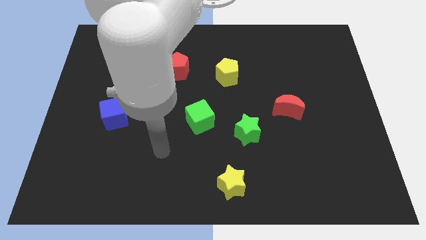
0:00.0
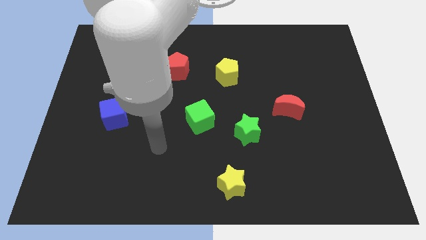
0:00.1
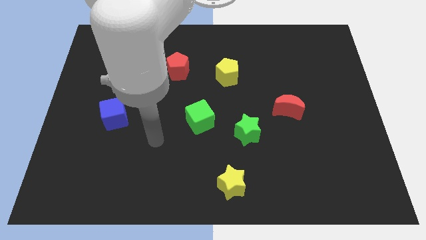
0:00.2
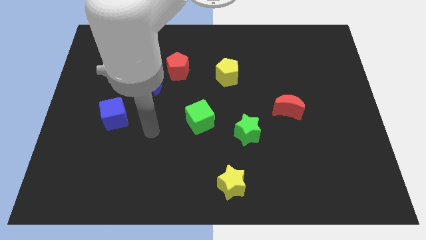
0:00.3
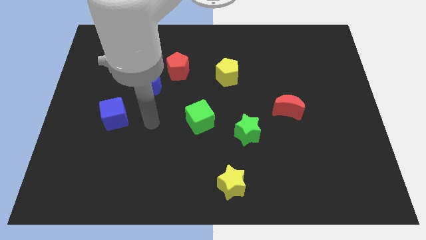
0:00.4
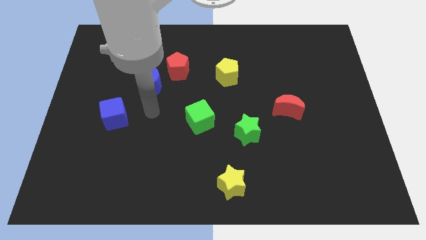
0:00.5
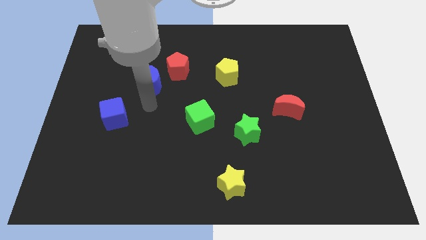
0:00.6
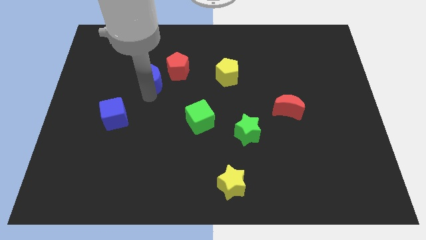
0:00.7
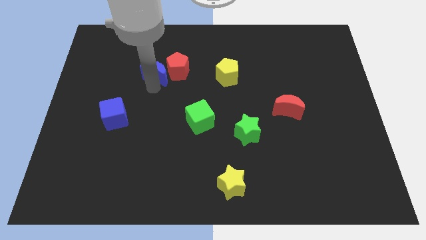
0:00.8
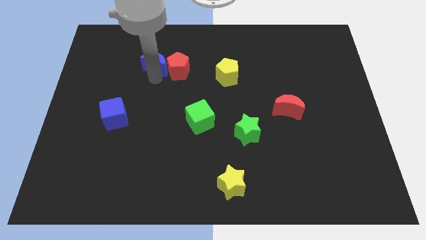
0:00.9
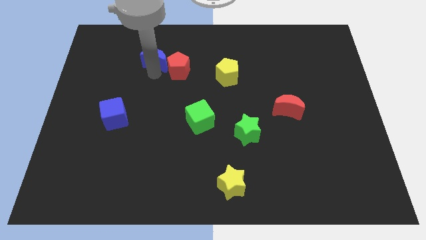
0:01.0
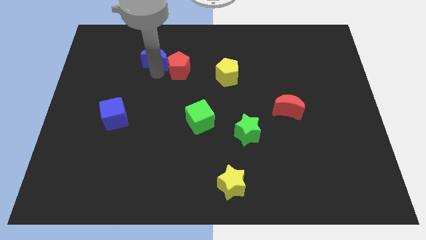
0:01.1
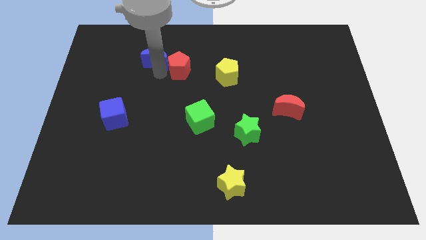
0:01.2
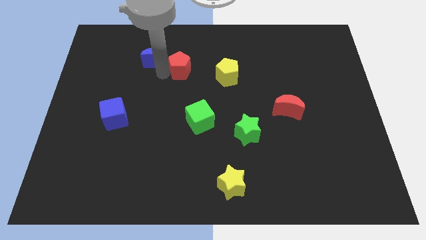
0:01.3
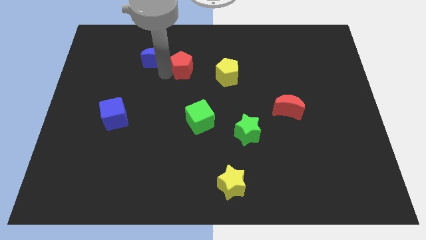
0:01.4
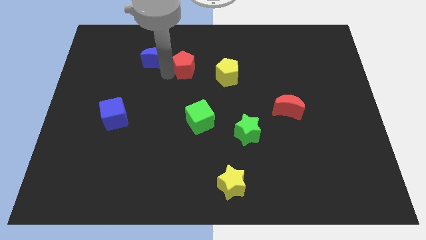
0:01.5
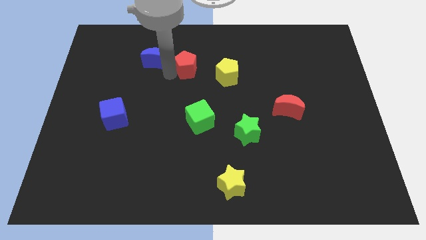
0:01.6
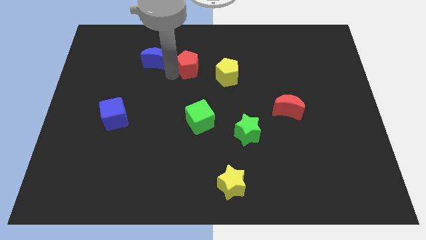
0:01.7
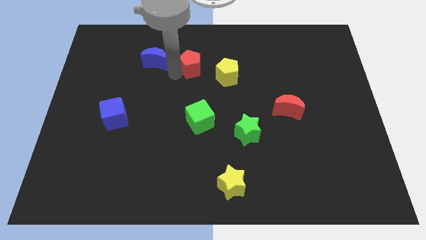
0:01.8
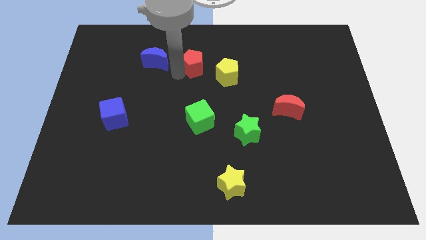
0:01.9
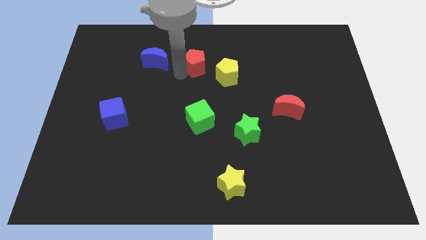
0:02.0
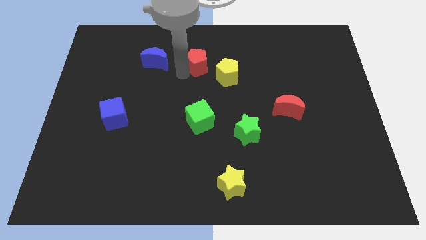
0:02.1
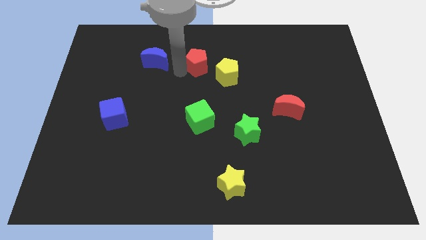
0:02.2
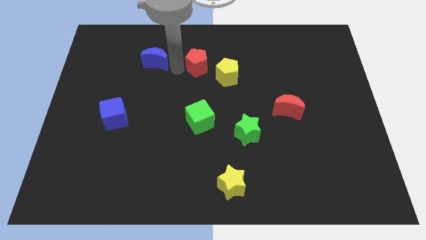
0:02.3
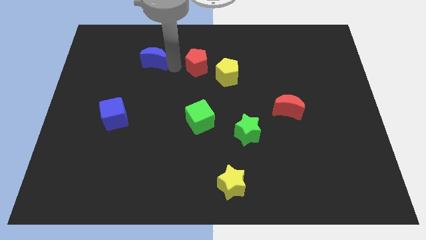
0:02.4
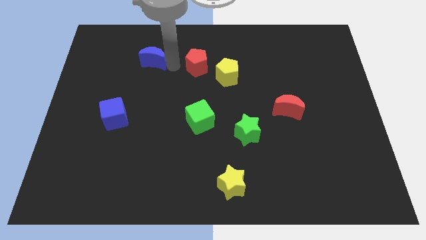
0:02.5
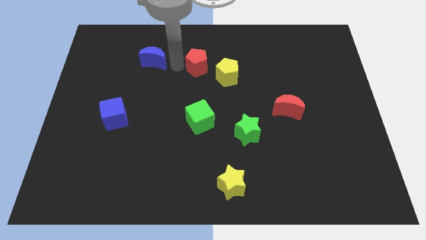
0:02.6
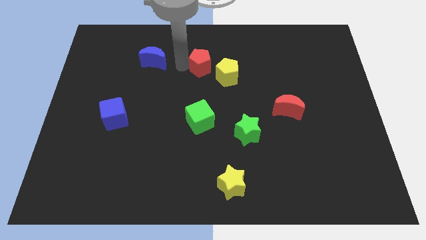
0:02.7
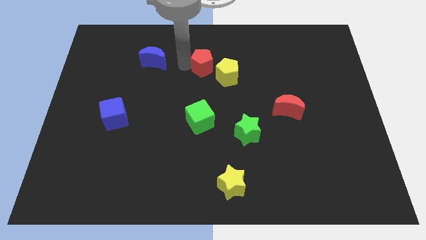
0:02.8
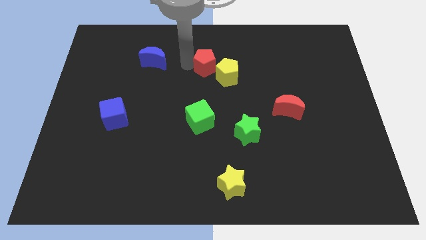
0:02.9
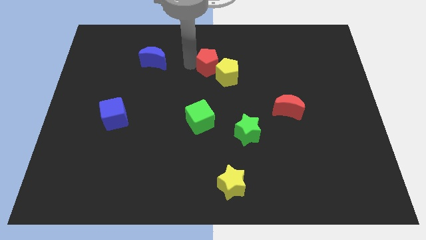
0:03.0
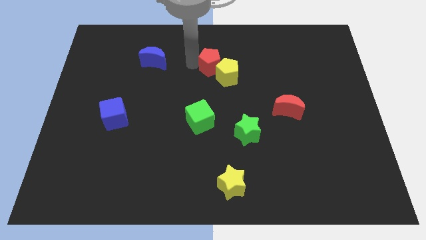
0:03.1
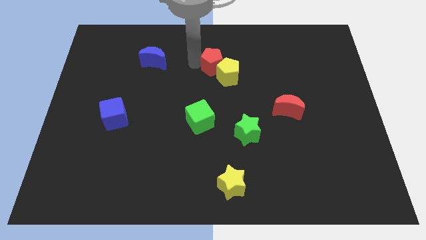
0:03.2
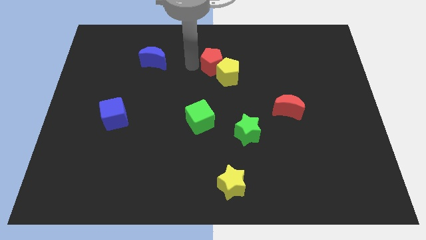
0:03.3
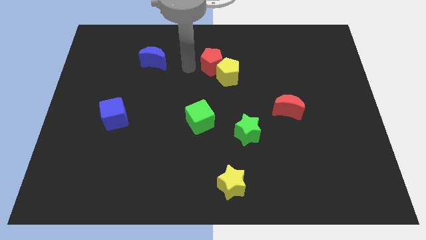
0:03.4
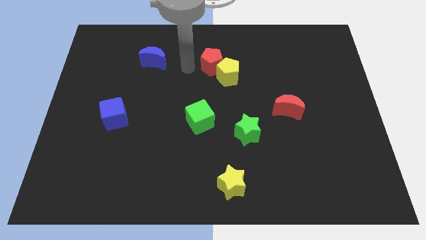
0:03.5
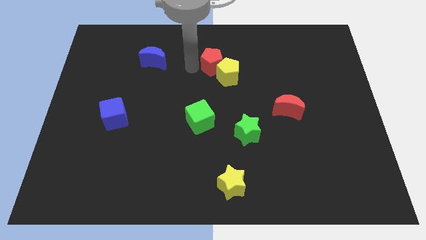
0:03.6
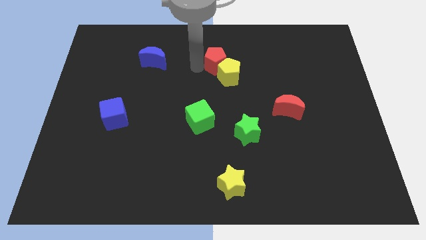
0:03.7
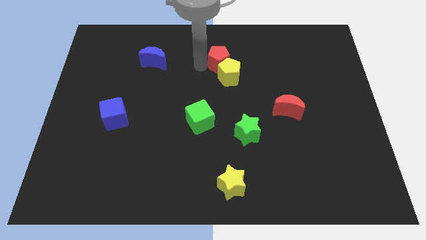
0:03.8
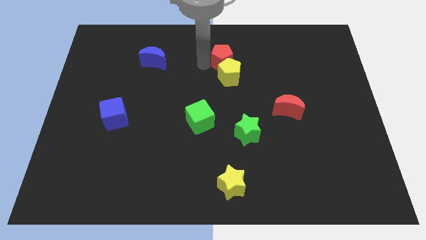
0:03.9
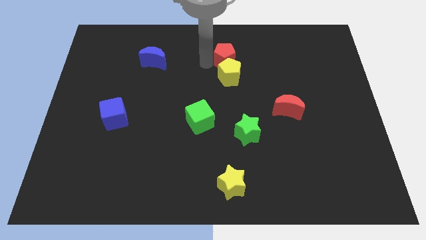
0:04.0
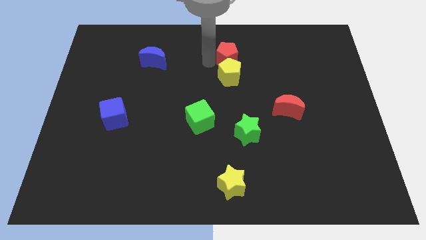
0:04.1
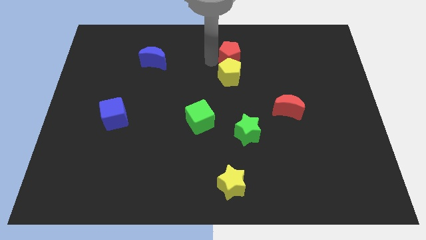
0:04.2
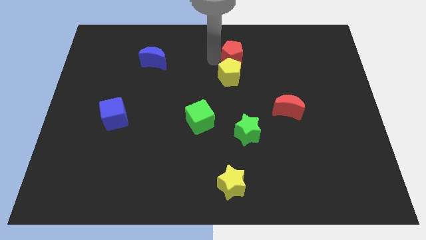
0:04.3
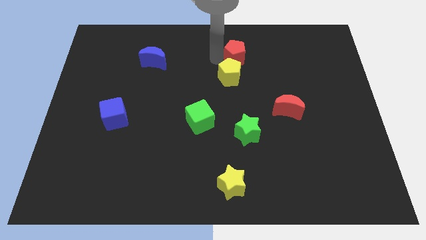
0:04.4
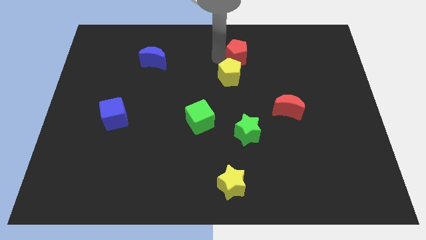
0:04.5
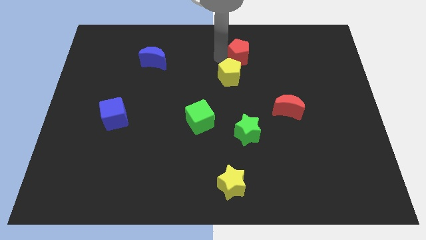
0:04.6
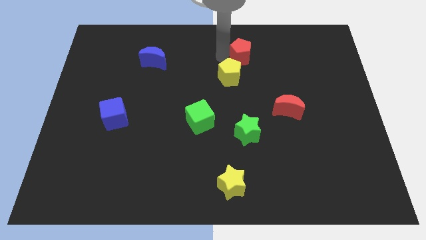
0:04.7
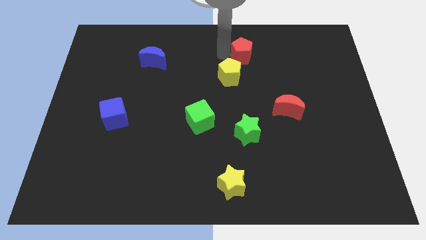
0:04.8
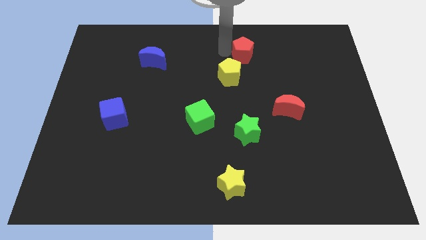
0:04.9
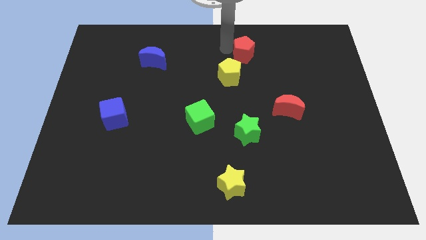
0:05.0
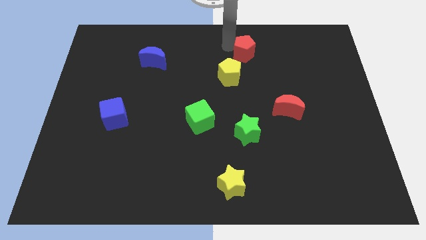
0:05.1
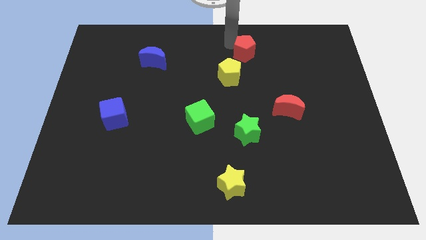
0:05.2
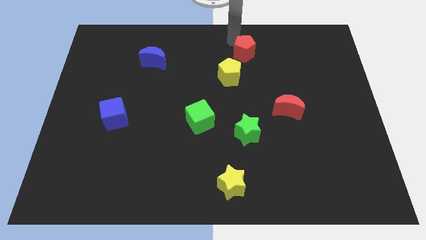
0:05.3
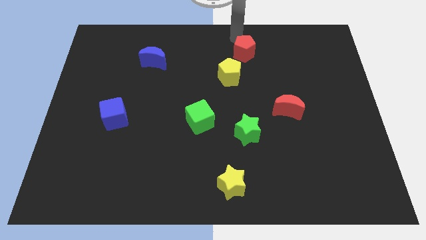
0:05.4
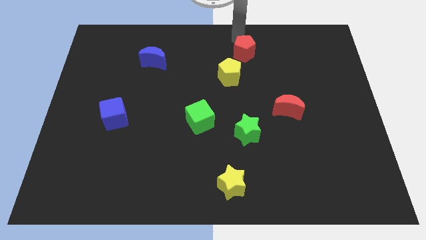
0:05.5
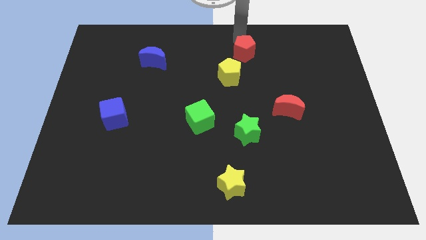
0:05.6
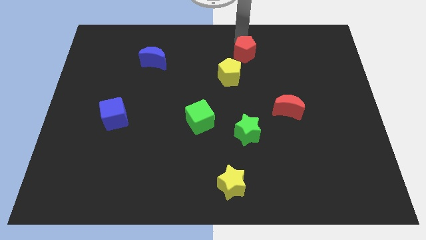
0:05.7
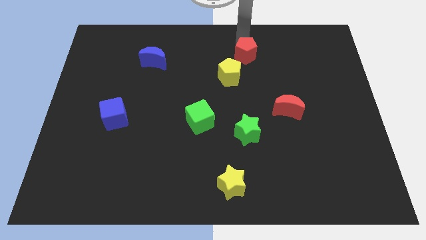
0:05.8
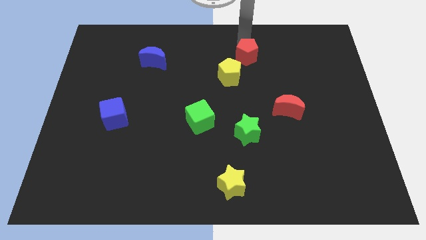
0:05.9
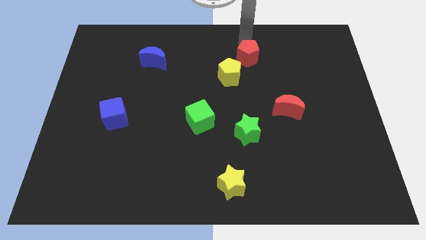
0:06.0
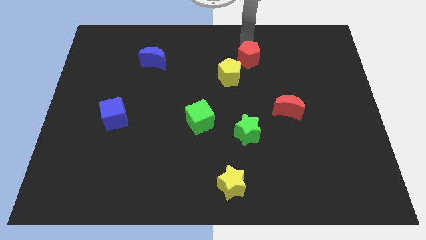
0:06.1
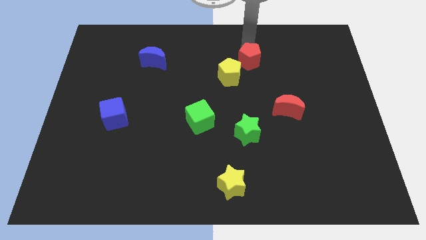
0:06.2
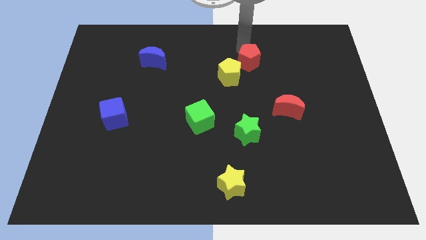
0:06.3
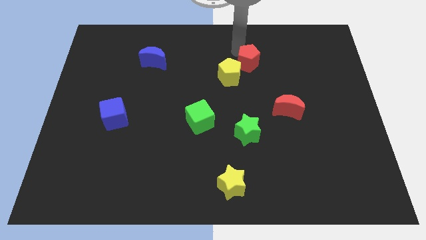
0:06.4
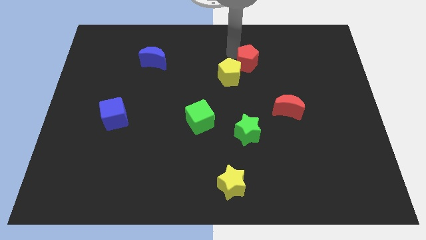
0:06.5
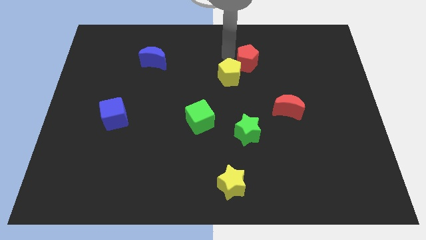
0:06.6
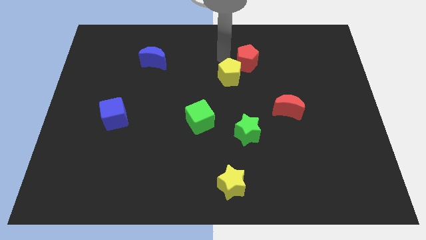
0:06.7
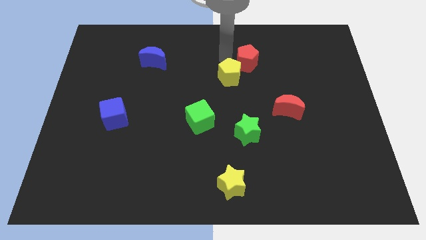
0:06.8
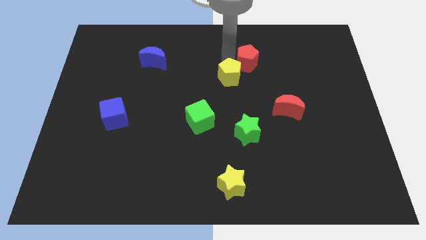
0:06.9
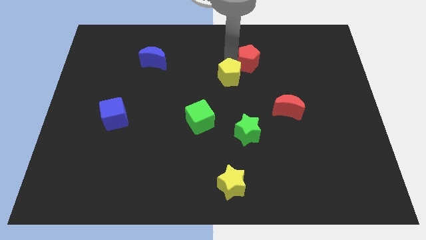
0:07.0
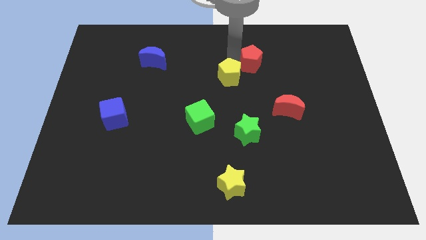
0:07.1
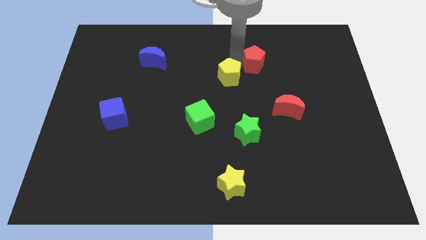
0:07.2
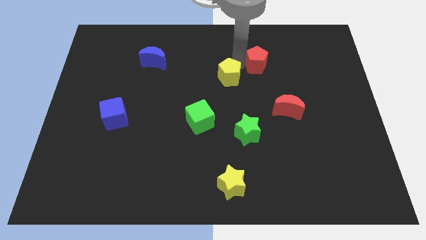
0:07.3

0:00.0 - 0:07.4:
push the red pentagon right

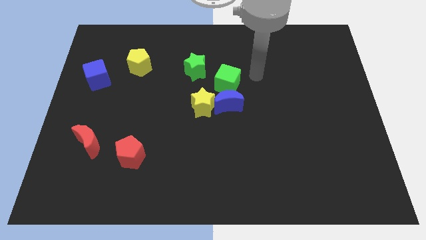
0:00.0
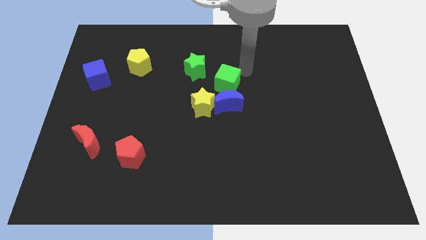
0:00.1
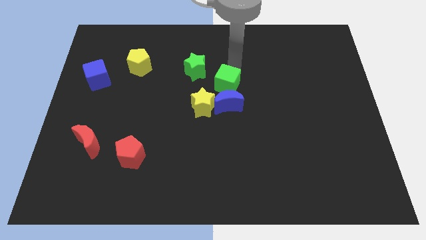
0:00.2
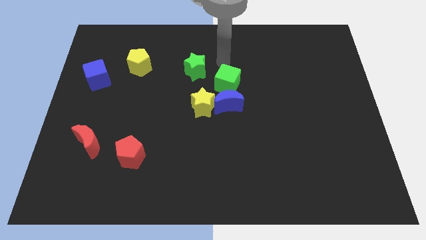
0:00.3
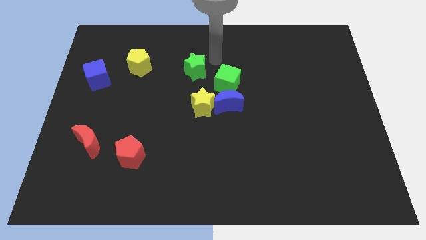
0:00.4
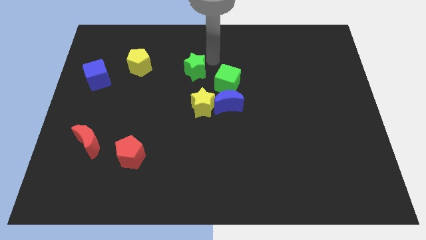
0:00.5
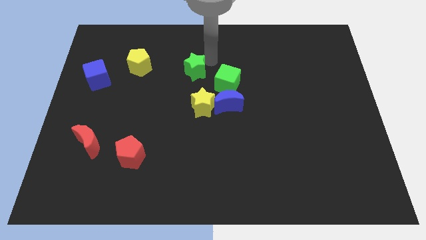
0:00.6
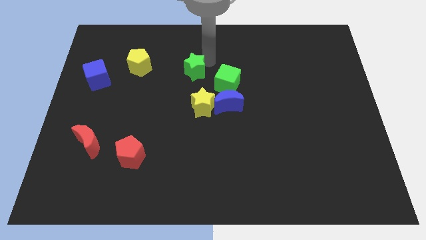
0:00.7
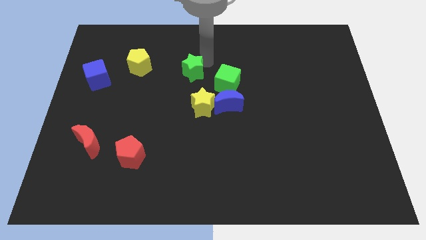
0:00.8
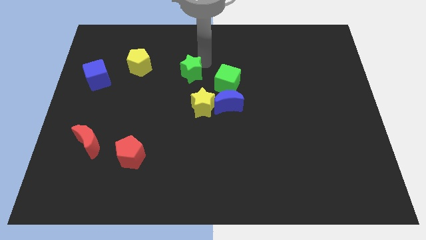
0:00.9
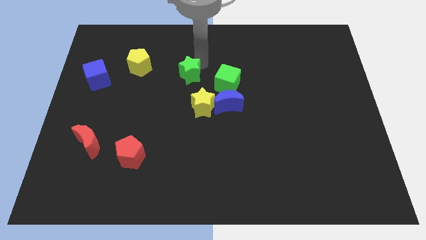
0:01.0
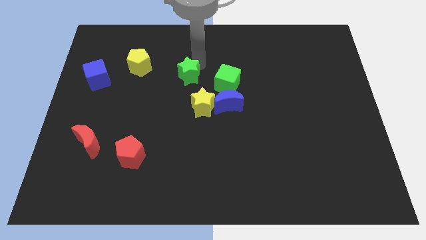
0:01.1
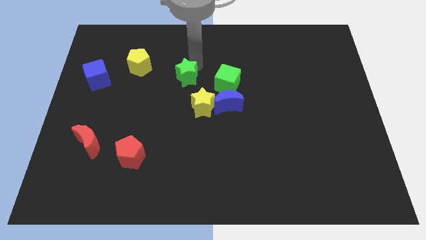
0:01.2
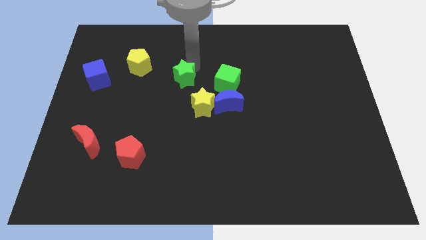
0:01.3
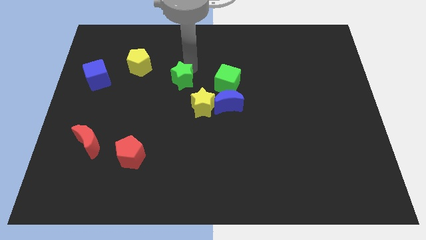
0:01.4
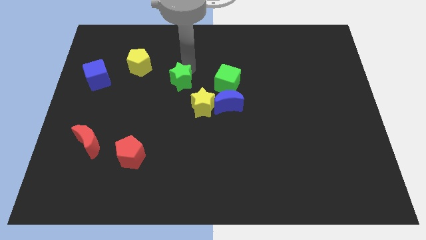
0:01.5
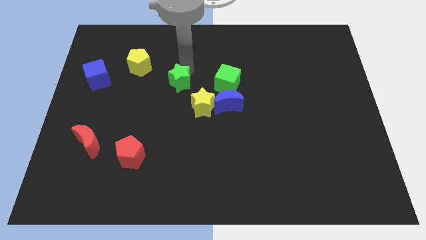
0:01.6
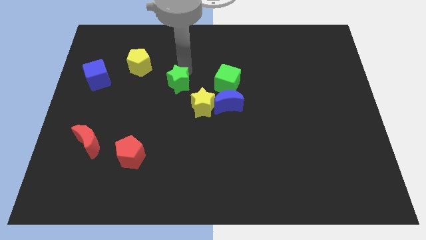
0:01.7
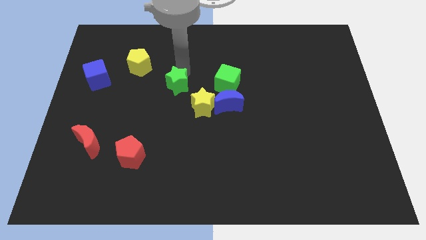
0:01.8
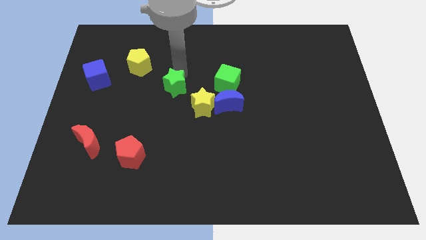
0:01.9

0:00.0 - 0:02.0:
slide the green star downwards and left a bit
